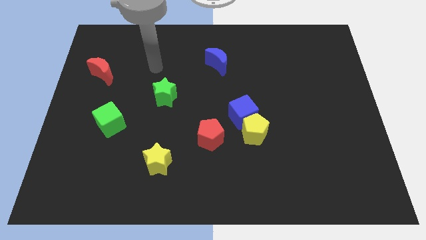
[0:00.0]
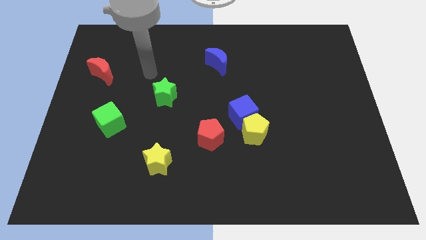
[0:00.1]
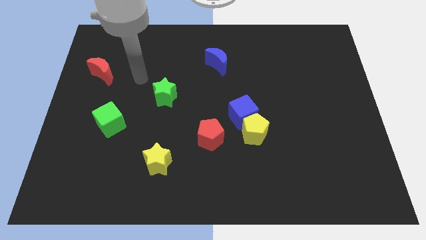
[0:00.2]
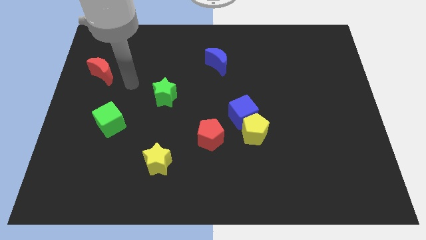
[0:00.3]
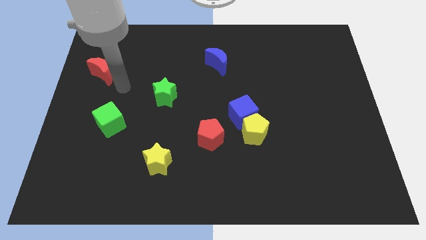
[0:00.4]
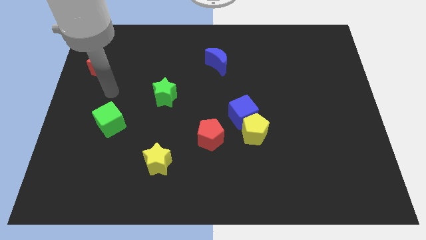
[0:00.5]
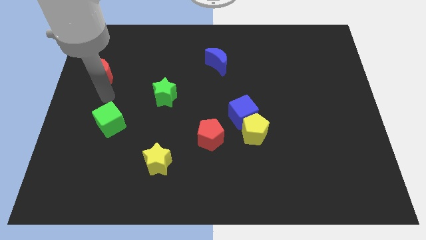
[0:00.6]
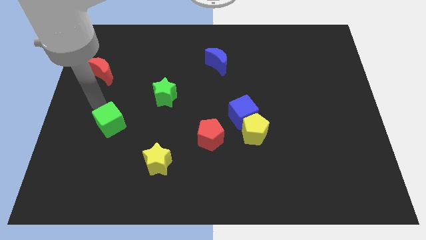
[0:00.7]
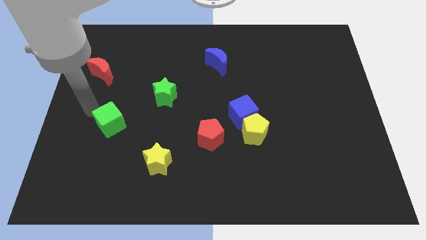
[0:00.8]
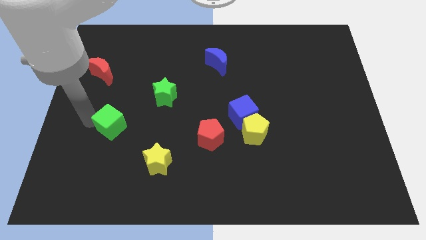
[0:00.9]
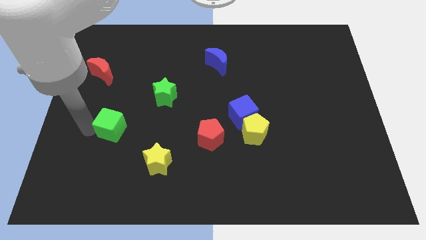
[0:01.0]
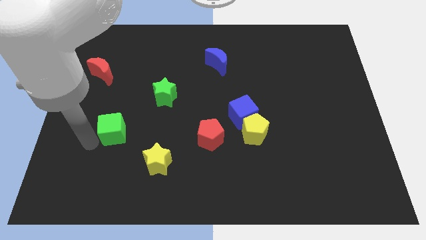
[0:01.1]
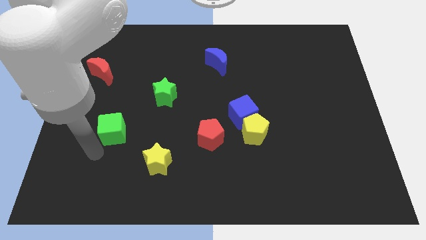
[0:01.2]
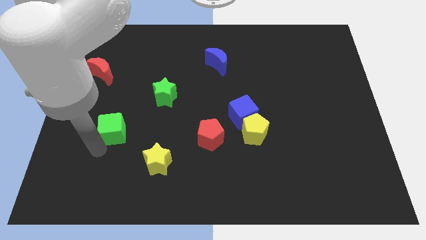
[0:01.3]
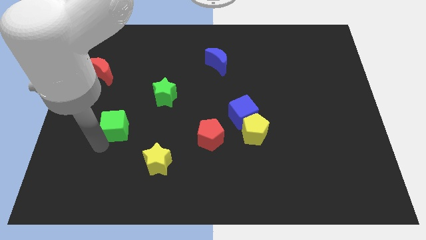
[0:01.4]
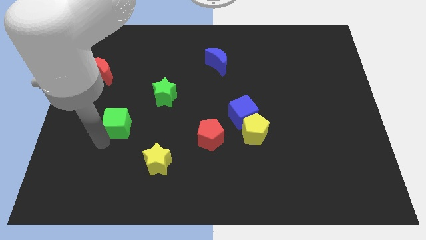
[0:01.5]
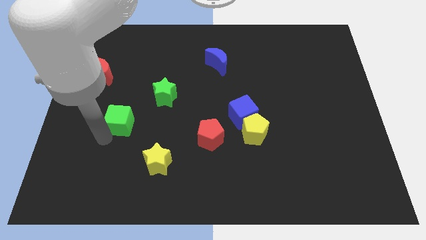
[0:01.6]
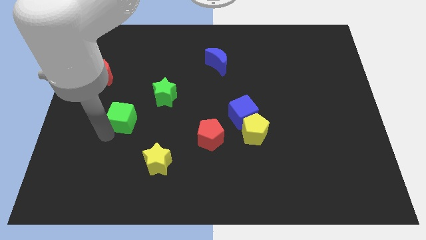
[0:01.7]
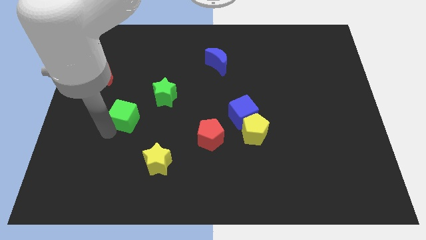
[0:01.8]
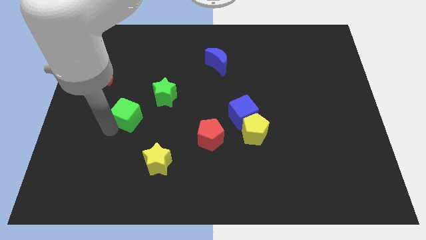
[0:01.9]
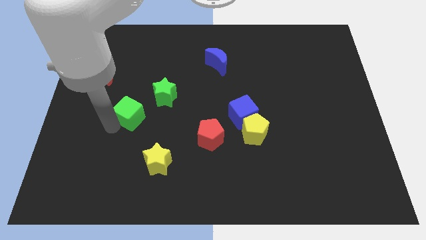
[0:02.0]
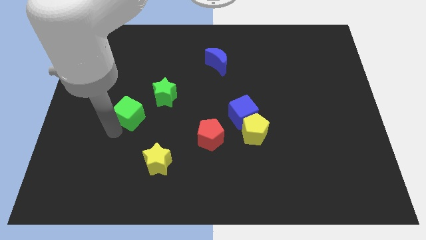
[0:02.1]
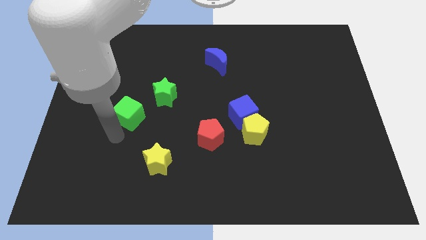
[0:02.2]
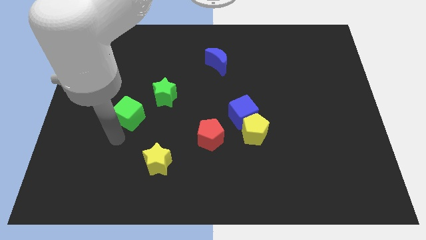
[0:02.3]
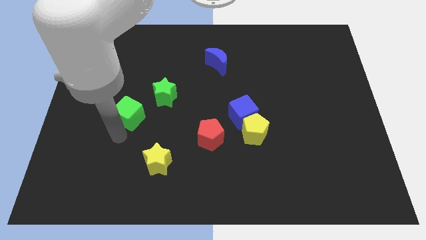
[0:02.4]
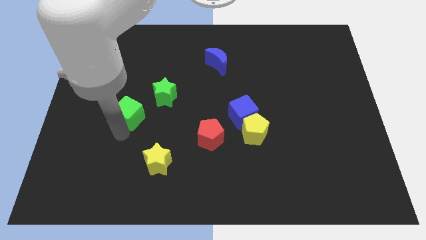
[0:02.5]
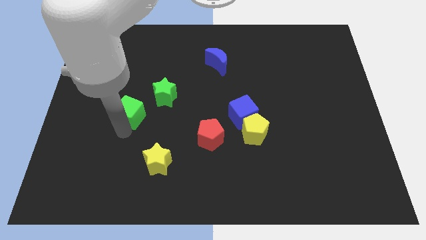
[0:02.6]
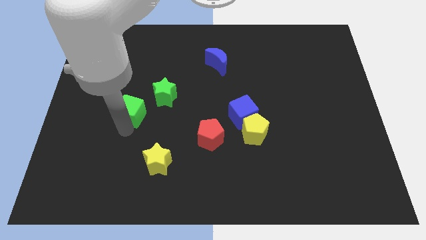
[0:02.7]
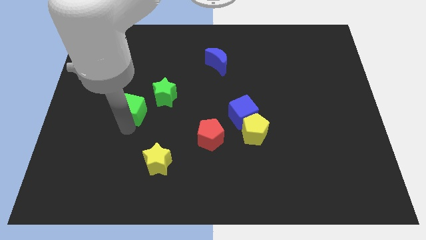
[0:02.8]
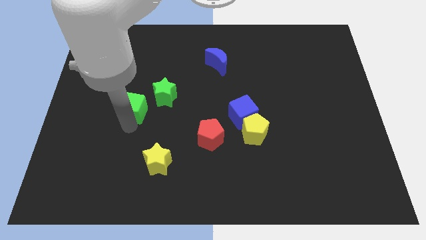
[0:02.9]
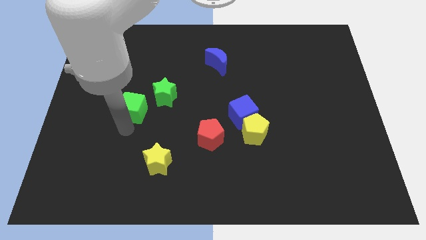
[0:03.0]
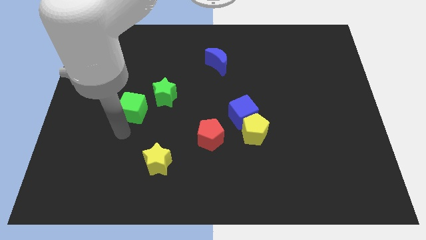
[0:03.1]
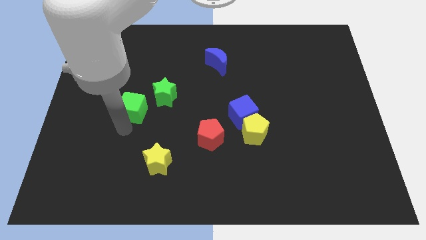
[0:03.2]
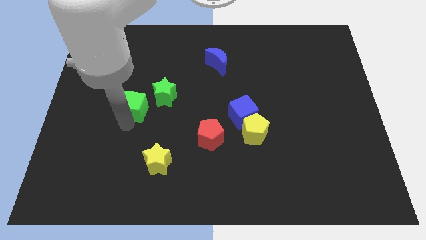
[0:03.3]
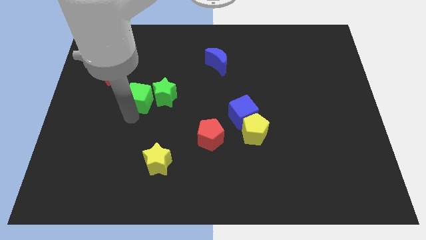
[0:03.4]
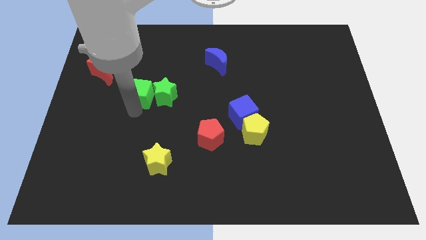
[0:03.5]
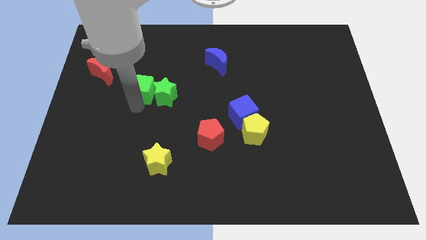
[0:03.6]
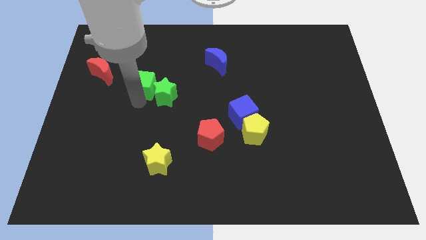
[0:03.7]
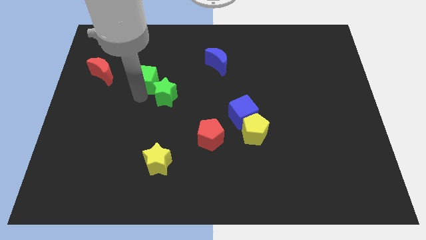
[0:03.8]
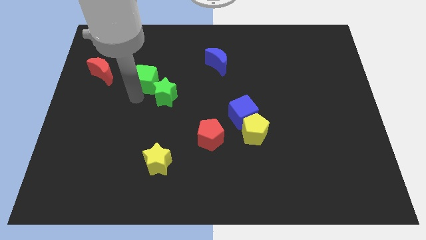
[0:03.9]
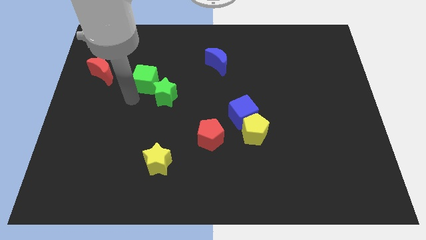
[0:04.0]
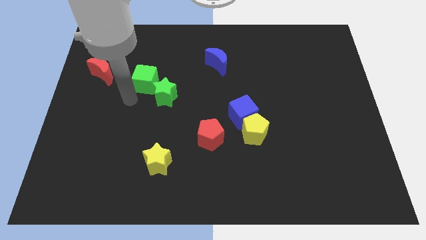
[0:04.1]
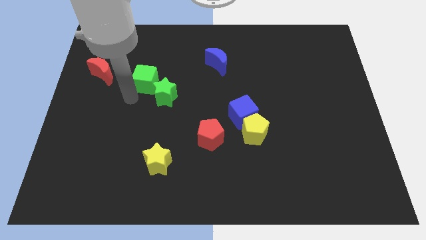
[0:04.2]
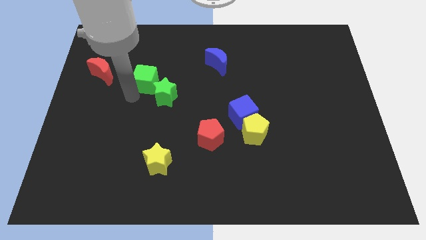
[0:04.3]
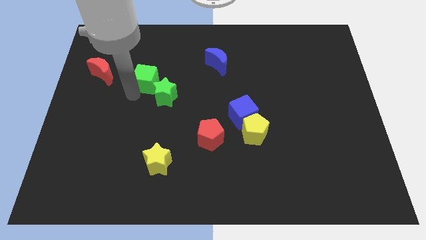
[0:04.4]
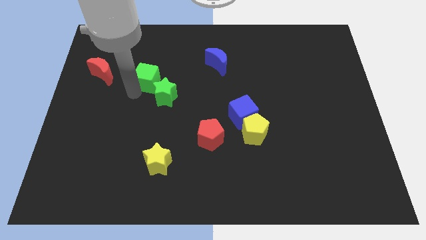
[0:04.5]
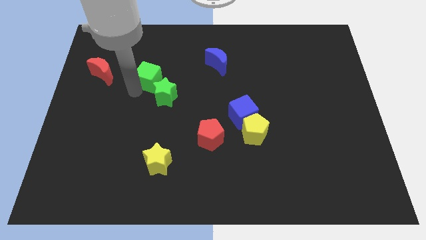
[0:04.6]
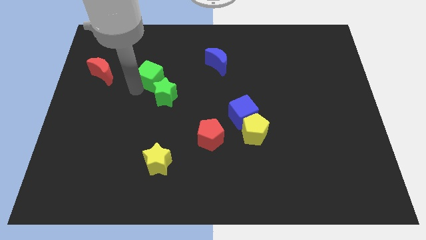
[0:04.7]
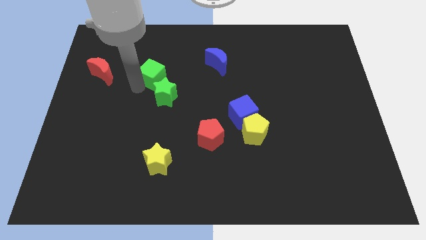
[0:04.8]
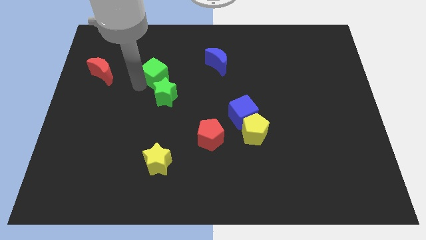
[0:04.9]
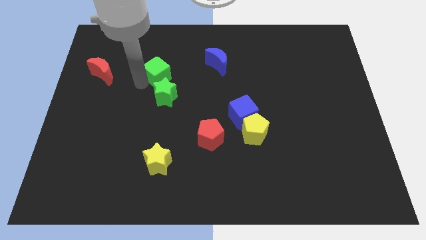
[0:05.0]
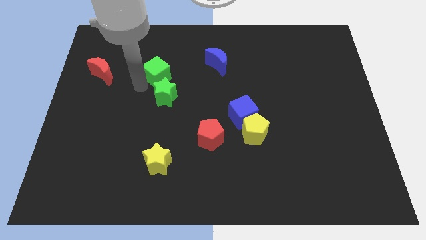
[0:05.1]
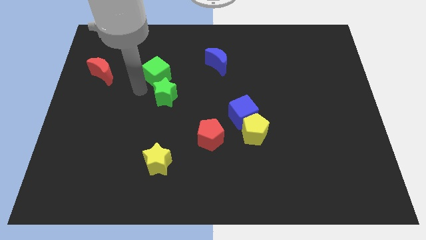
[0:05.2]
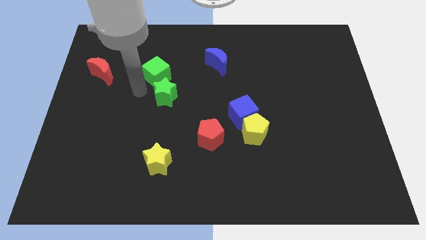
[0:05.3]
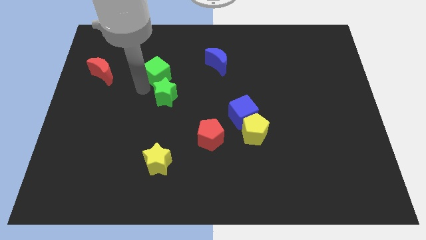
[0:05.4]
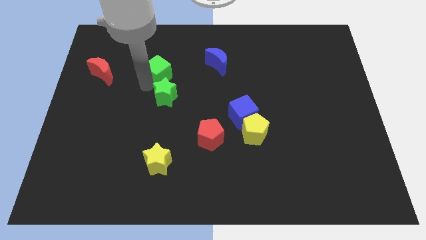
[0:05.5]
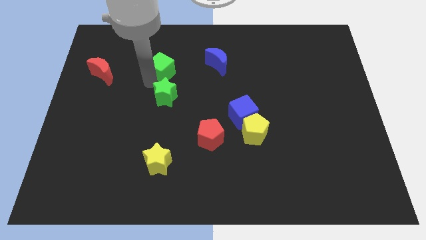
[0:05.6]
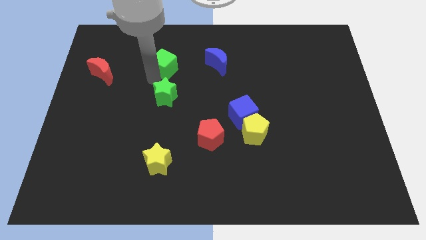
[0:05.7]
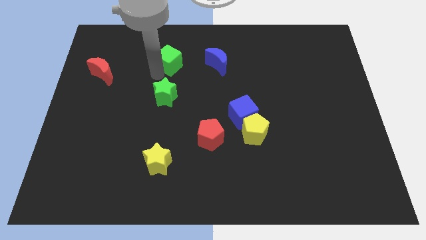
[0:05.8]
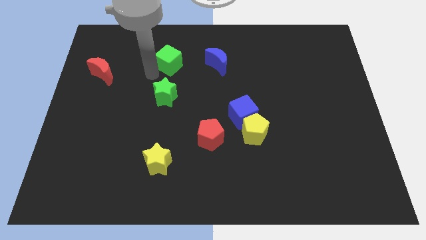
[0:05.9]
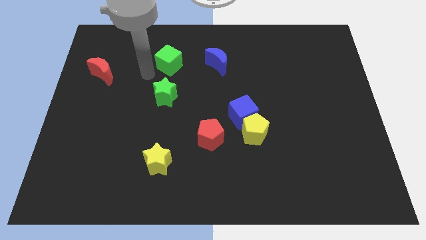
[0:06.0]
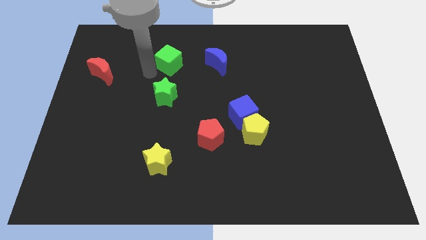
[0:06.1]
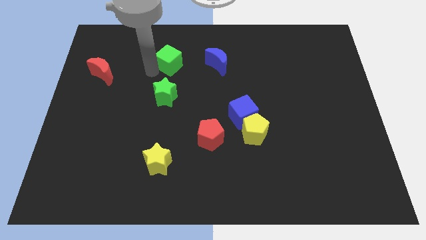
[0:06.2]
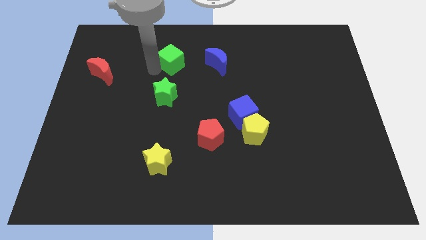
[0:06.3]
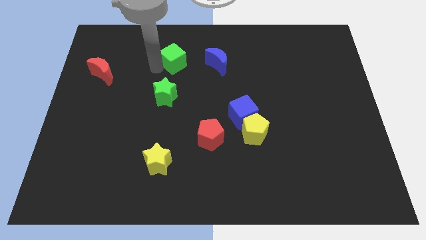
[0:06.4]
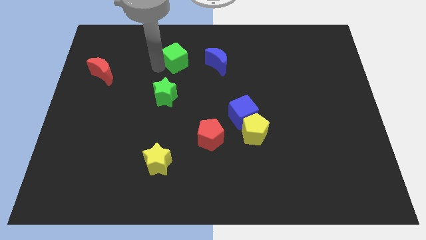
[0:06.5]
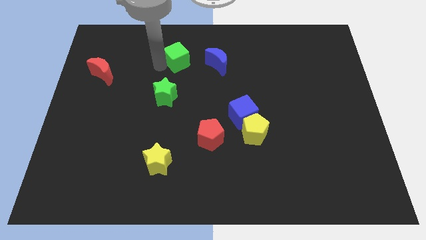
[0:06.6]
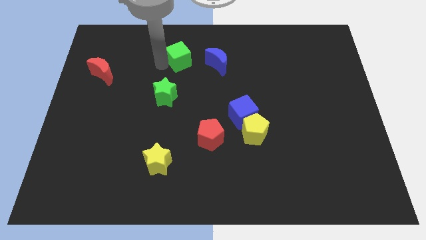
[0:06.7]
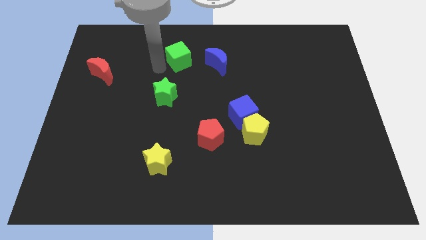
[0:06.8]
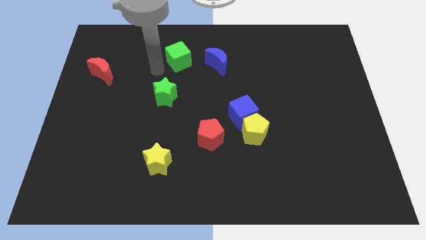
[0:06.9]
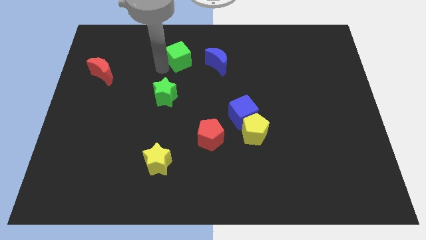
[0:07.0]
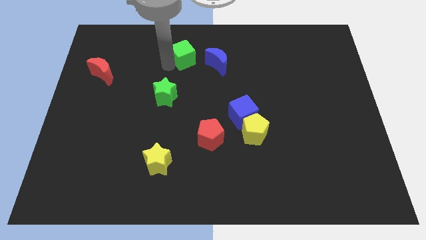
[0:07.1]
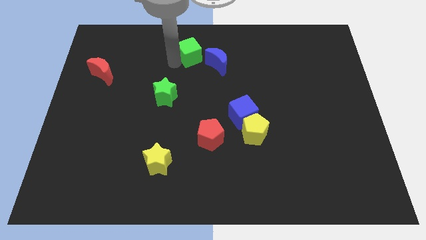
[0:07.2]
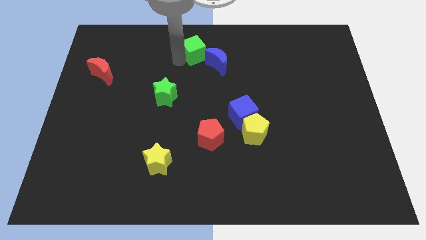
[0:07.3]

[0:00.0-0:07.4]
move the green cube to the top side
